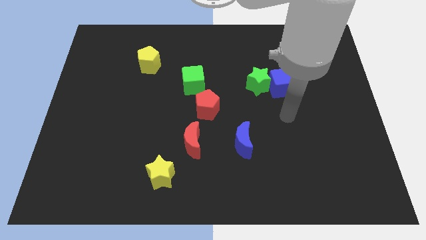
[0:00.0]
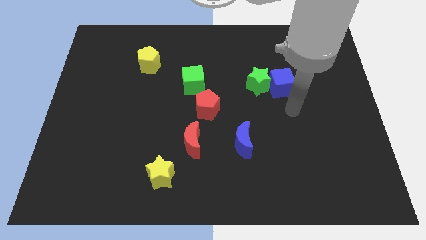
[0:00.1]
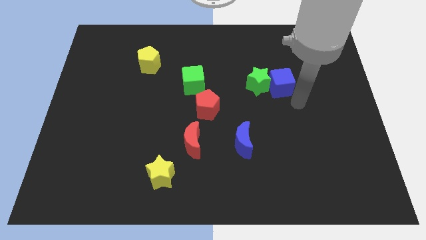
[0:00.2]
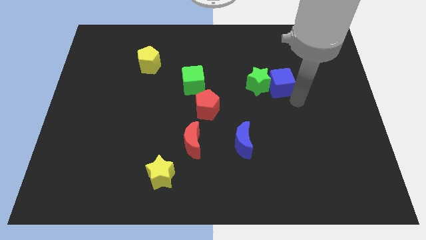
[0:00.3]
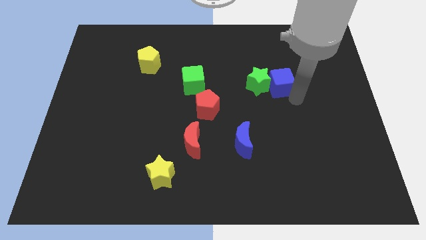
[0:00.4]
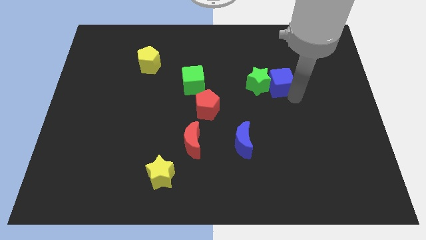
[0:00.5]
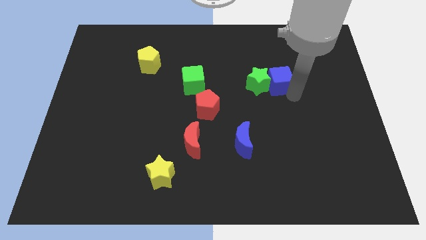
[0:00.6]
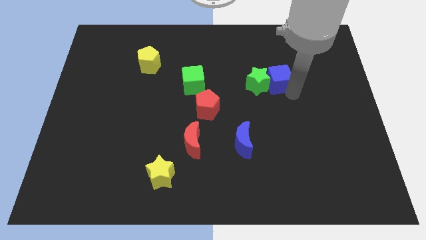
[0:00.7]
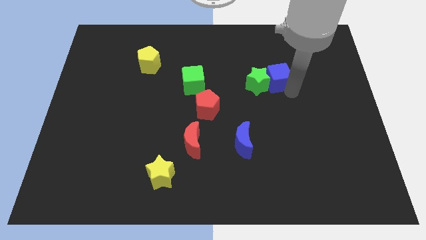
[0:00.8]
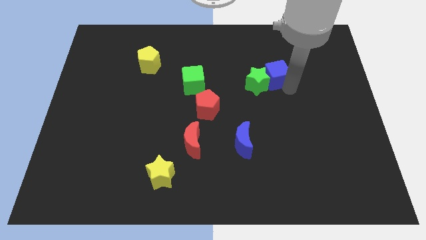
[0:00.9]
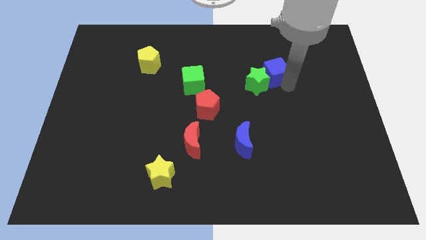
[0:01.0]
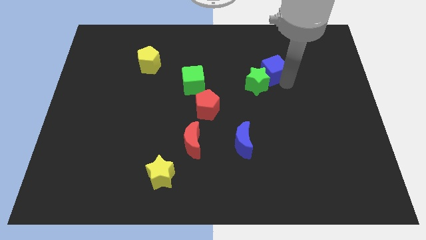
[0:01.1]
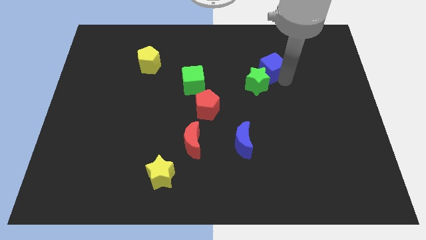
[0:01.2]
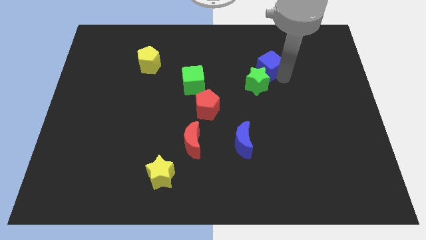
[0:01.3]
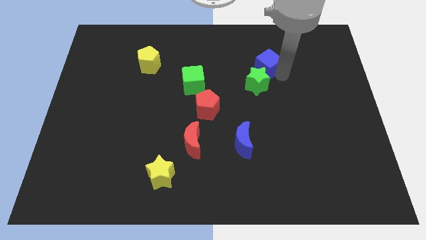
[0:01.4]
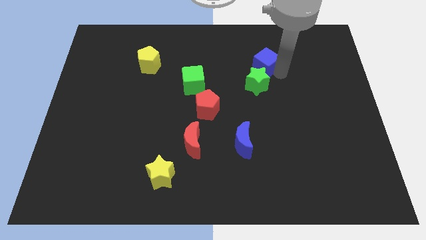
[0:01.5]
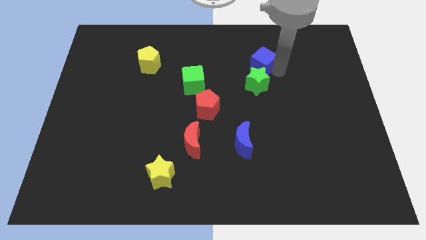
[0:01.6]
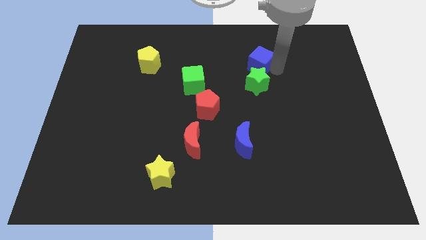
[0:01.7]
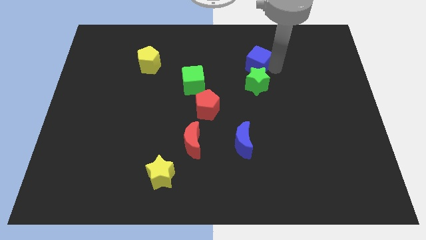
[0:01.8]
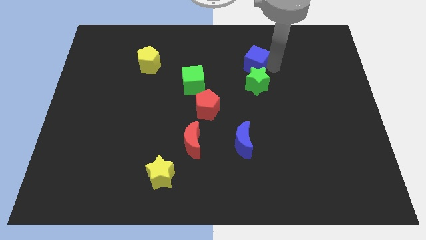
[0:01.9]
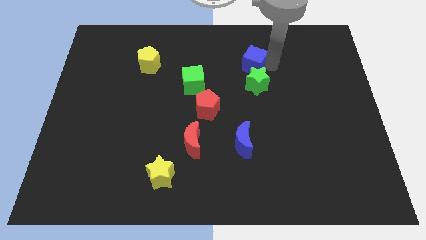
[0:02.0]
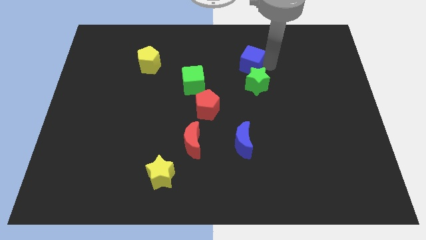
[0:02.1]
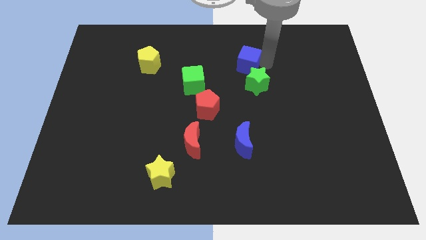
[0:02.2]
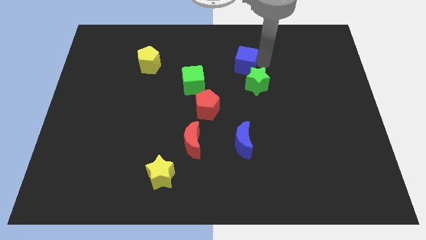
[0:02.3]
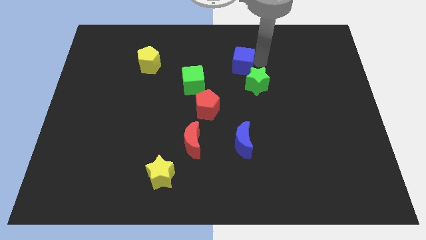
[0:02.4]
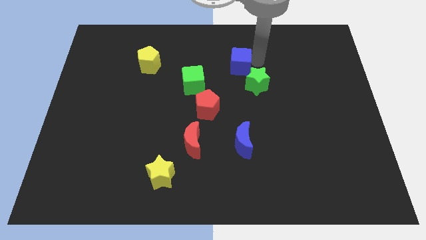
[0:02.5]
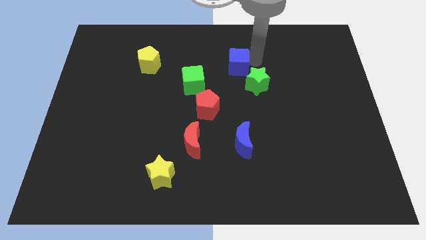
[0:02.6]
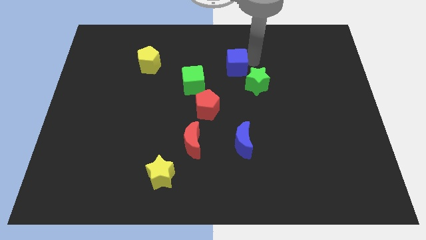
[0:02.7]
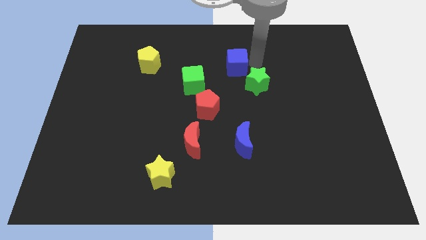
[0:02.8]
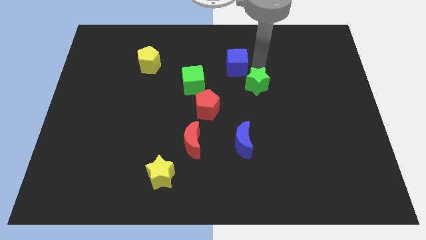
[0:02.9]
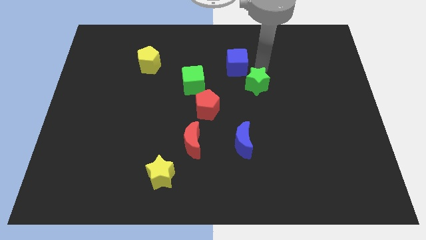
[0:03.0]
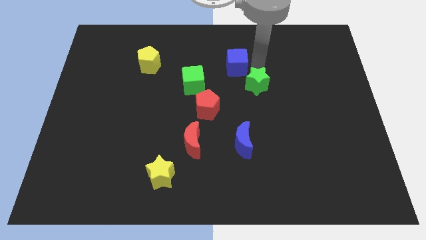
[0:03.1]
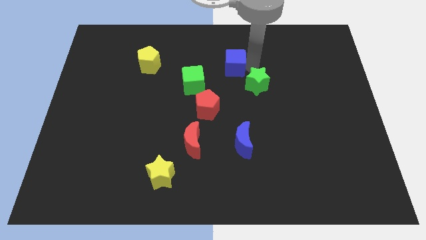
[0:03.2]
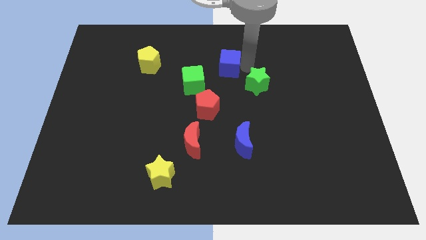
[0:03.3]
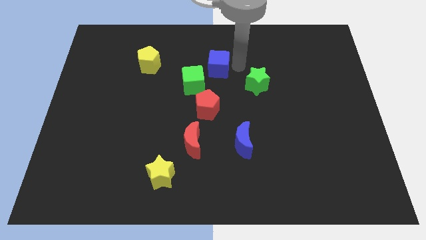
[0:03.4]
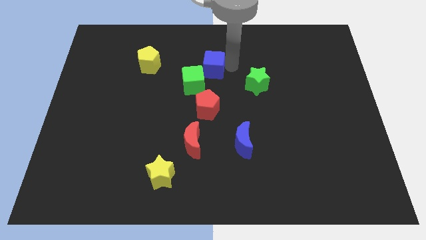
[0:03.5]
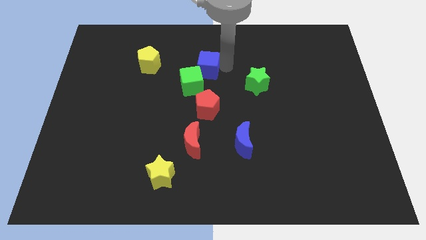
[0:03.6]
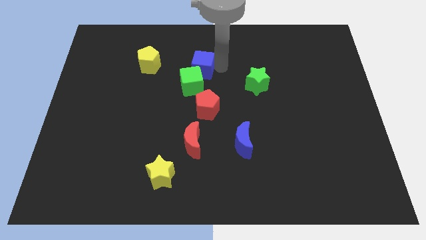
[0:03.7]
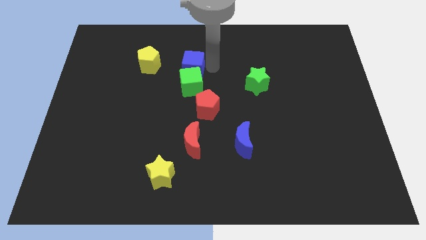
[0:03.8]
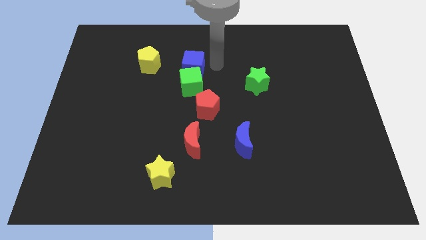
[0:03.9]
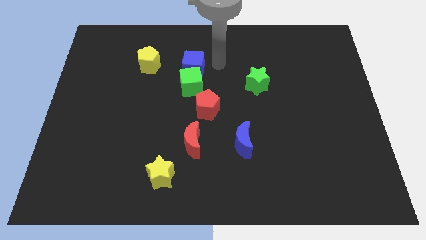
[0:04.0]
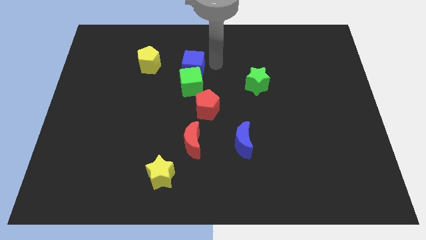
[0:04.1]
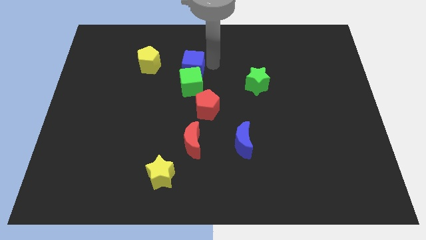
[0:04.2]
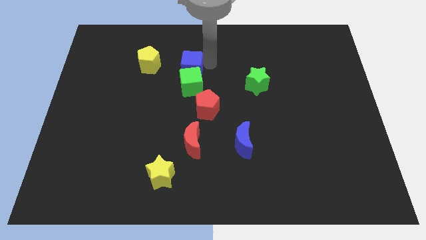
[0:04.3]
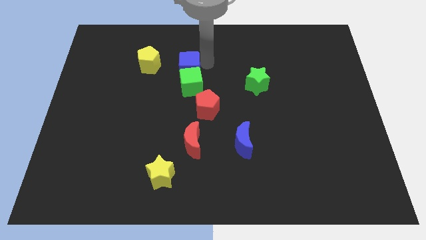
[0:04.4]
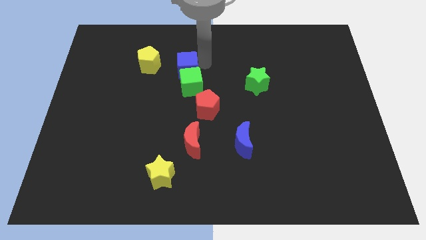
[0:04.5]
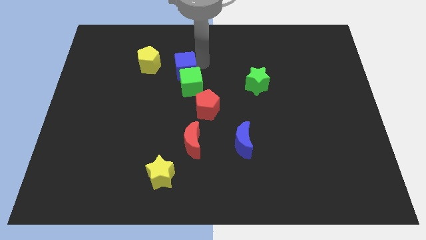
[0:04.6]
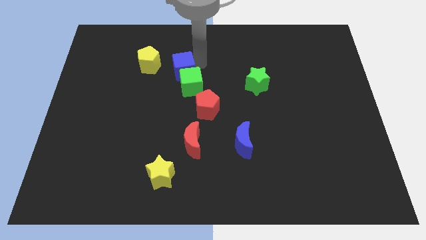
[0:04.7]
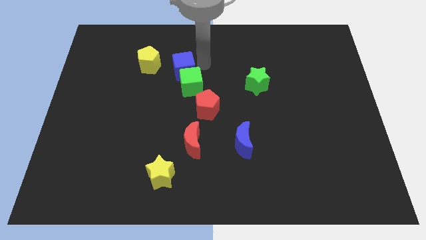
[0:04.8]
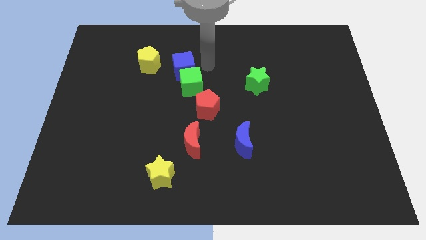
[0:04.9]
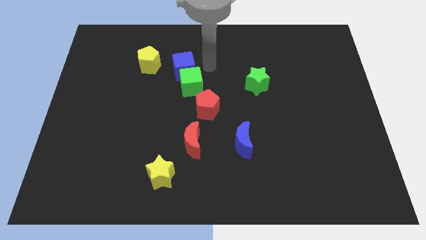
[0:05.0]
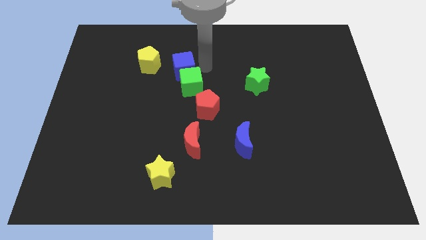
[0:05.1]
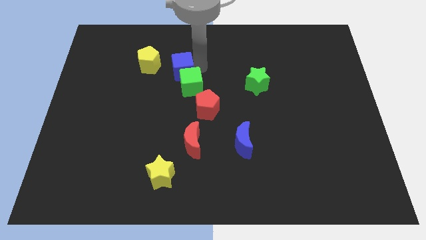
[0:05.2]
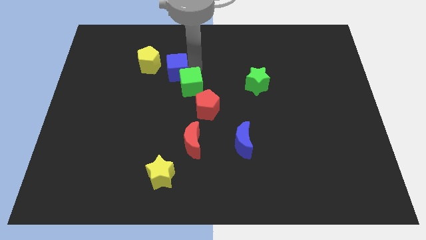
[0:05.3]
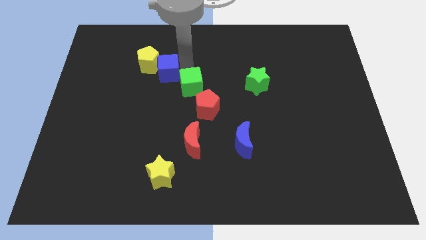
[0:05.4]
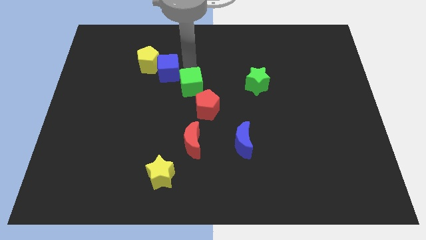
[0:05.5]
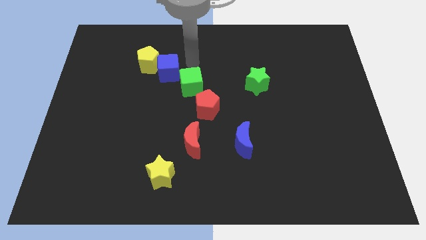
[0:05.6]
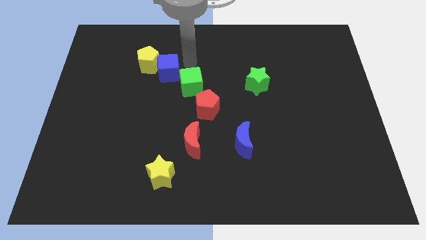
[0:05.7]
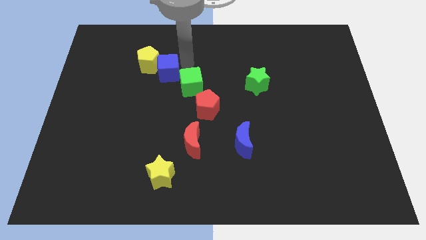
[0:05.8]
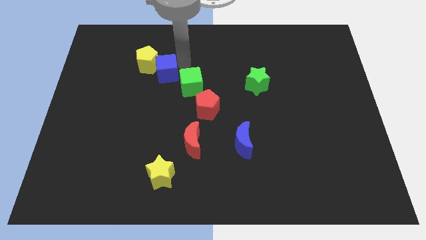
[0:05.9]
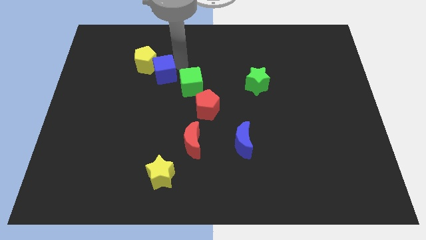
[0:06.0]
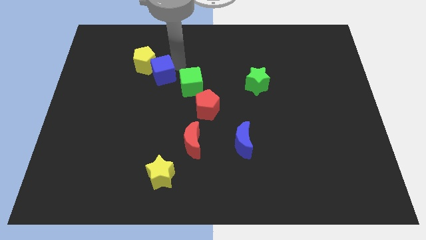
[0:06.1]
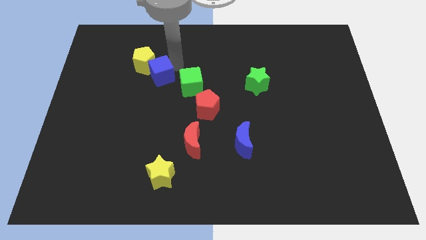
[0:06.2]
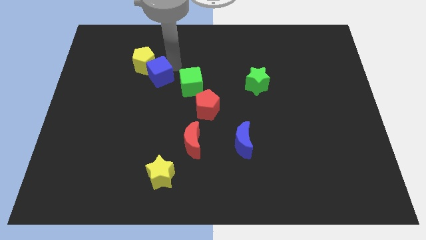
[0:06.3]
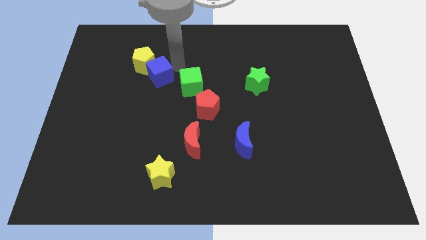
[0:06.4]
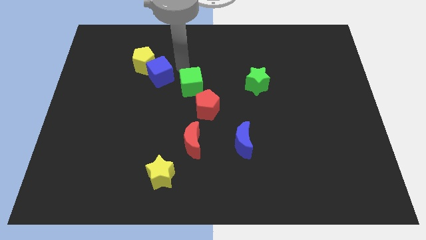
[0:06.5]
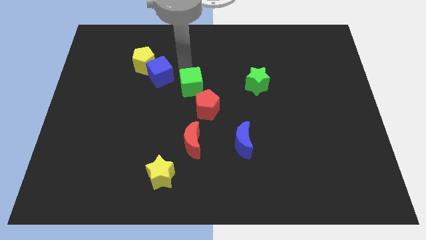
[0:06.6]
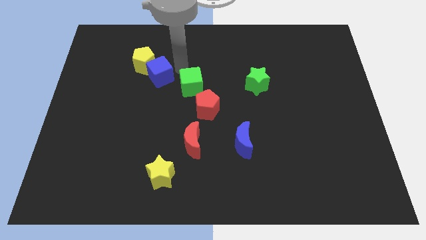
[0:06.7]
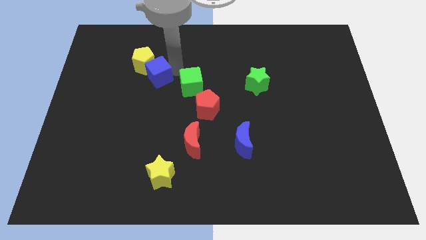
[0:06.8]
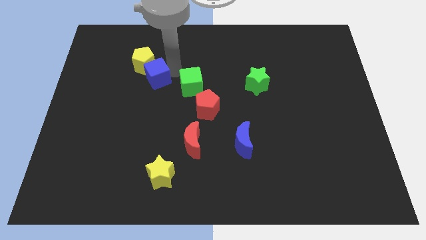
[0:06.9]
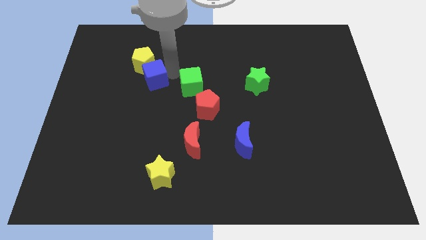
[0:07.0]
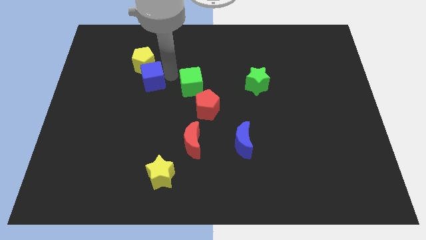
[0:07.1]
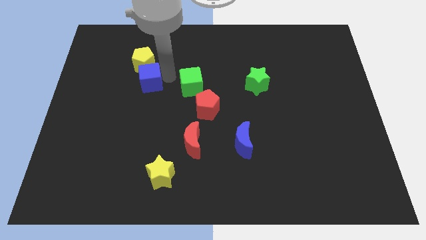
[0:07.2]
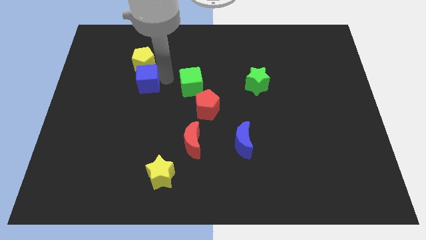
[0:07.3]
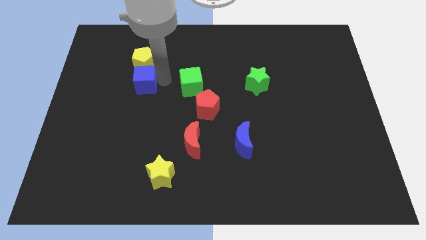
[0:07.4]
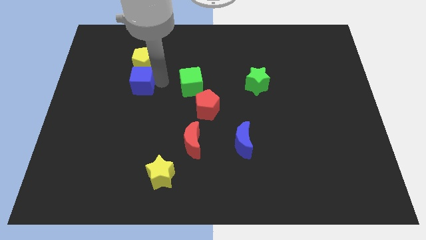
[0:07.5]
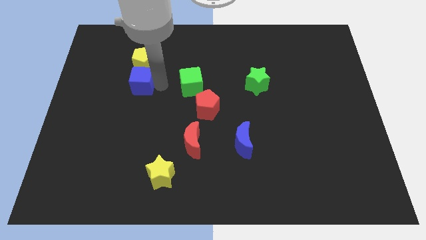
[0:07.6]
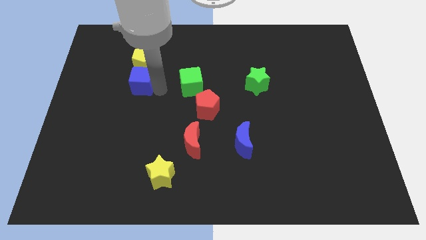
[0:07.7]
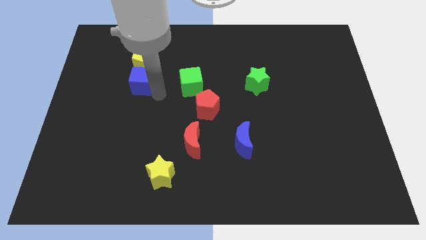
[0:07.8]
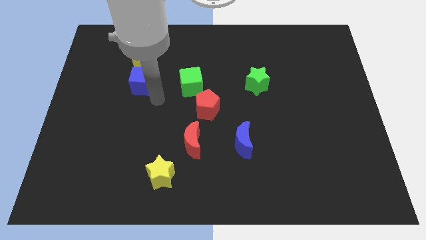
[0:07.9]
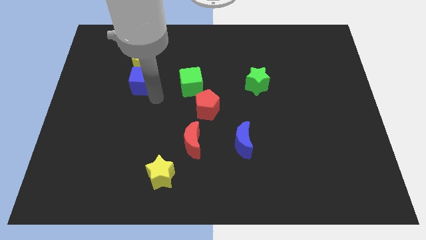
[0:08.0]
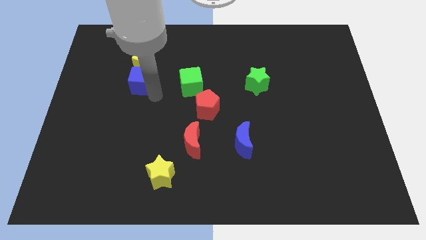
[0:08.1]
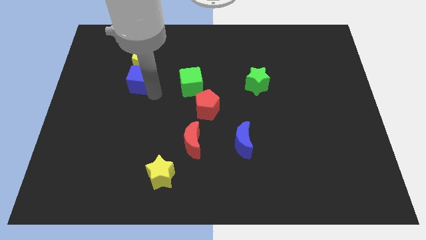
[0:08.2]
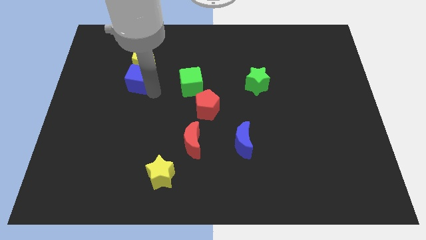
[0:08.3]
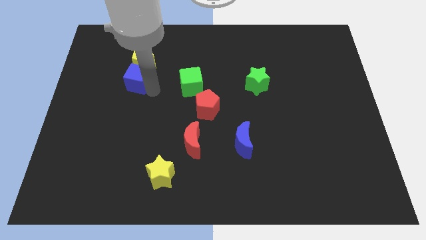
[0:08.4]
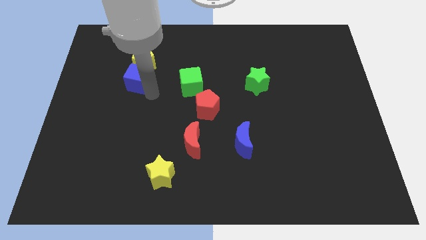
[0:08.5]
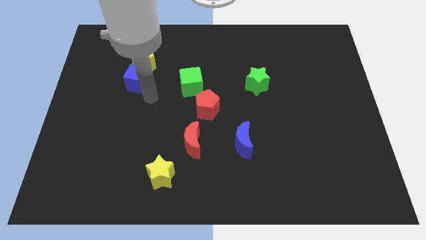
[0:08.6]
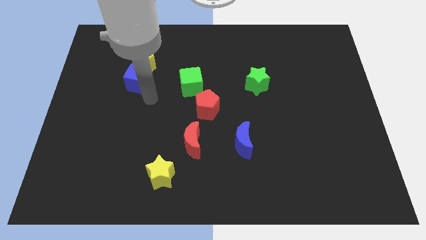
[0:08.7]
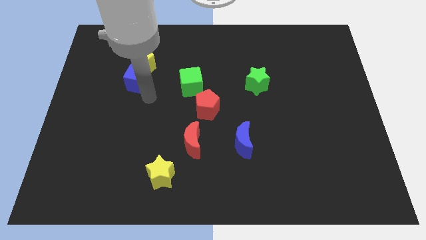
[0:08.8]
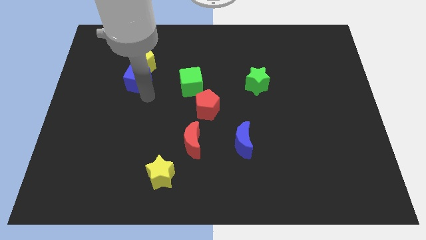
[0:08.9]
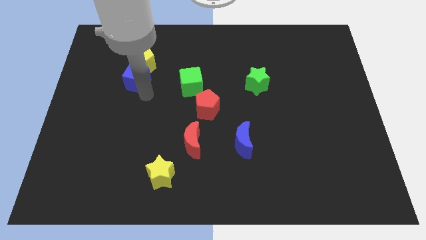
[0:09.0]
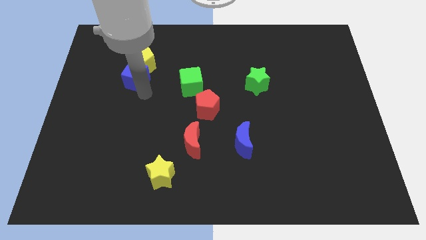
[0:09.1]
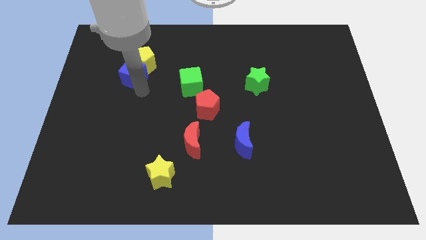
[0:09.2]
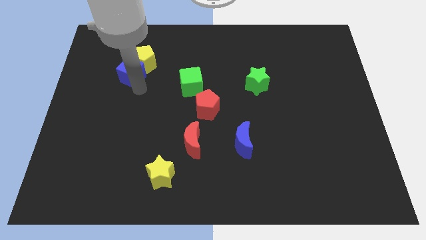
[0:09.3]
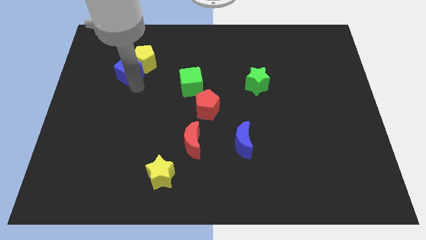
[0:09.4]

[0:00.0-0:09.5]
push the blue cube to the left of the yellow pentagon
